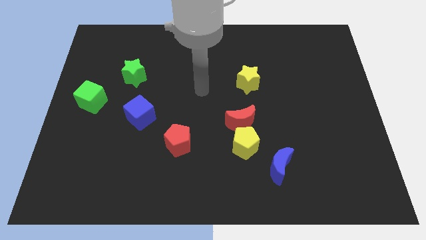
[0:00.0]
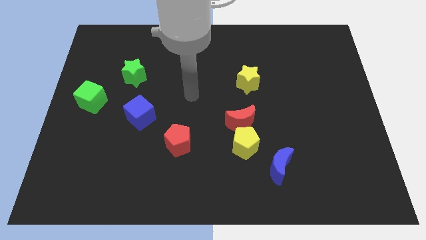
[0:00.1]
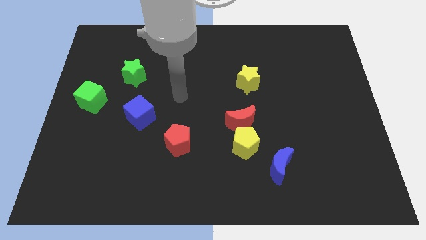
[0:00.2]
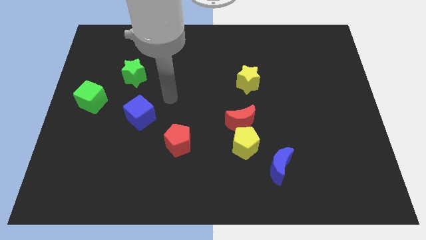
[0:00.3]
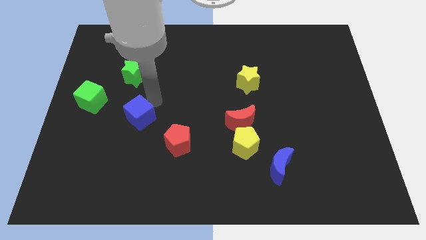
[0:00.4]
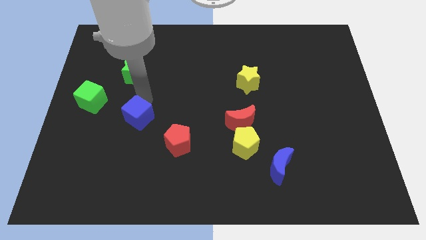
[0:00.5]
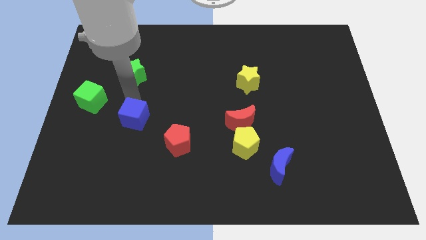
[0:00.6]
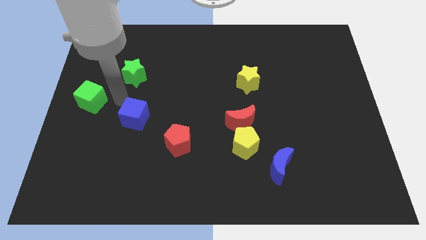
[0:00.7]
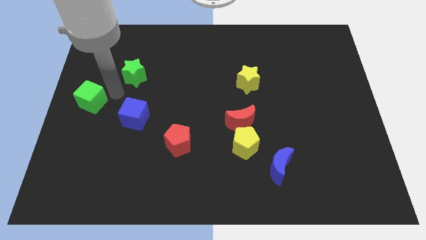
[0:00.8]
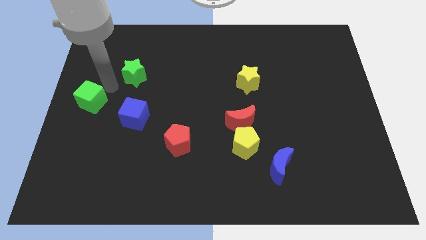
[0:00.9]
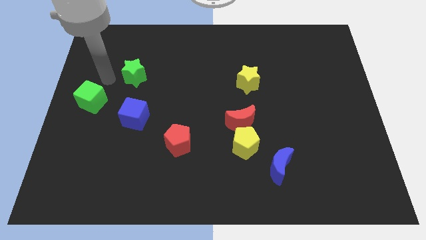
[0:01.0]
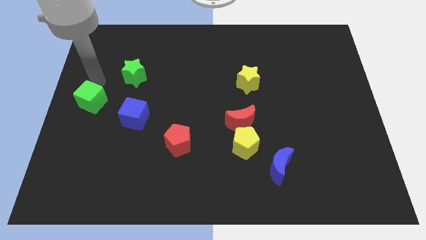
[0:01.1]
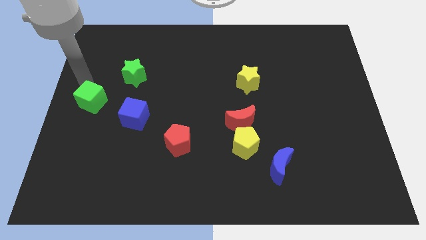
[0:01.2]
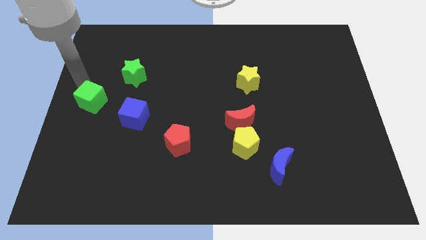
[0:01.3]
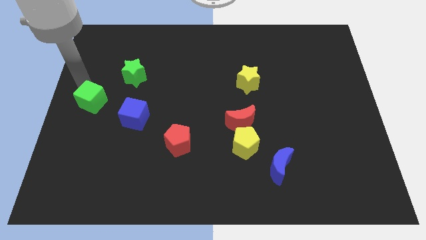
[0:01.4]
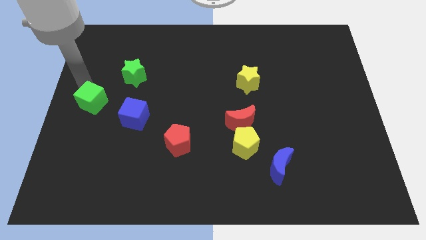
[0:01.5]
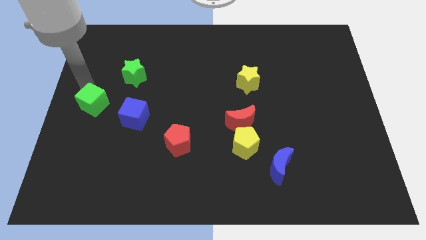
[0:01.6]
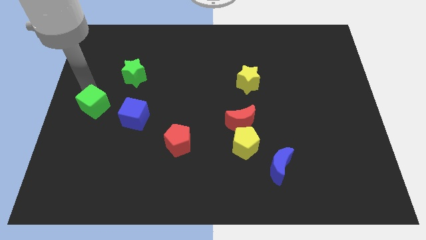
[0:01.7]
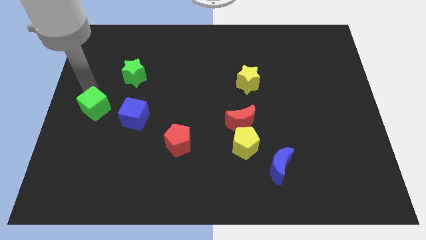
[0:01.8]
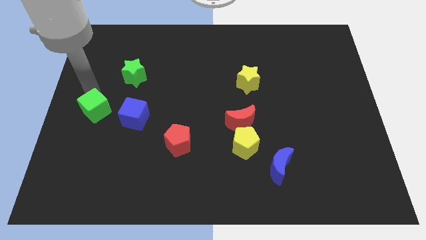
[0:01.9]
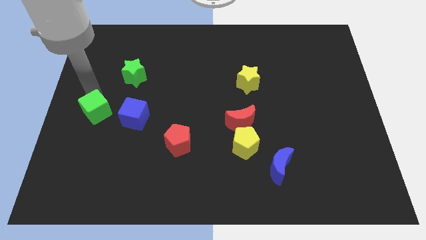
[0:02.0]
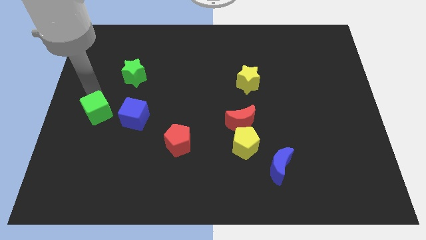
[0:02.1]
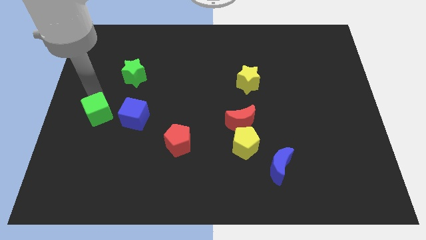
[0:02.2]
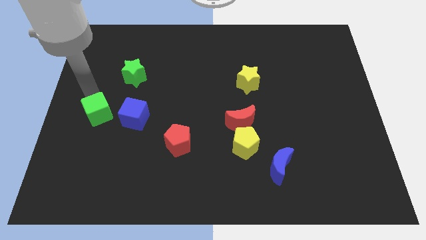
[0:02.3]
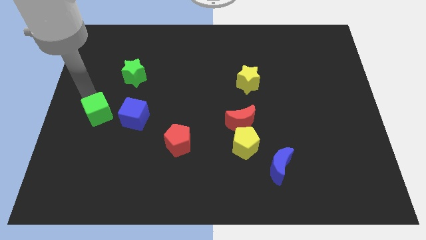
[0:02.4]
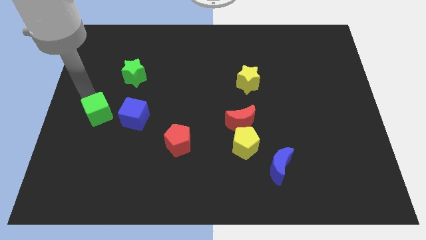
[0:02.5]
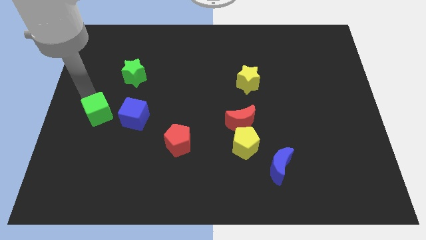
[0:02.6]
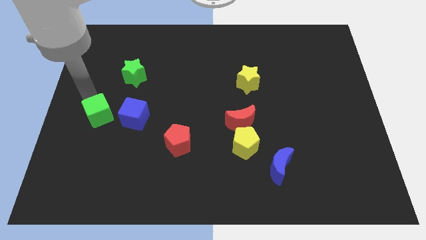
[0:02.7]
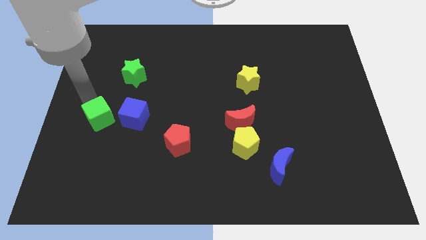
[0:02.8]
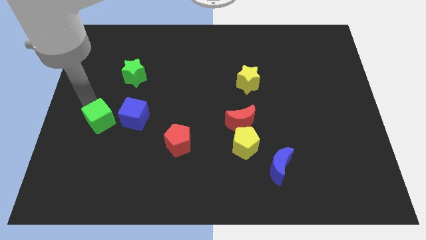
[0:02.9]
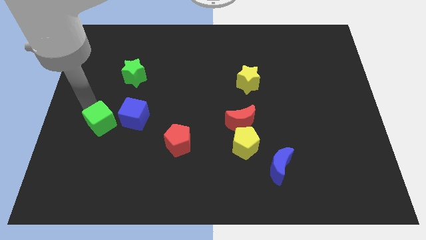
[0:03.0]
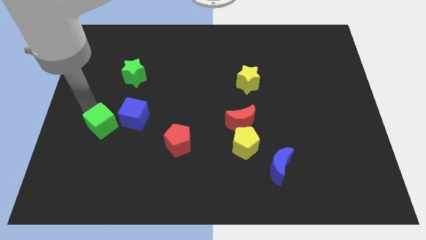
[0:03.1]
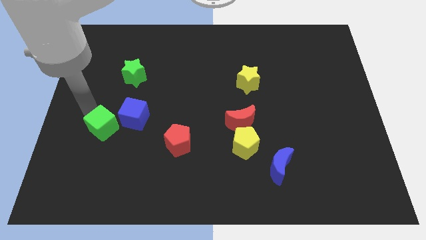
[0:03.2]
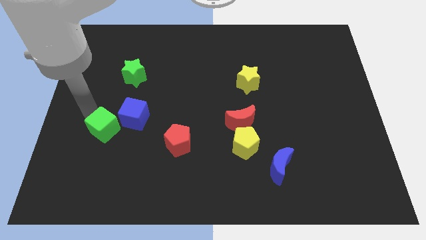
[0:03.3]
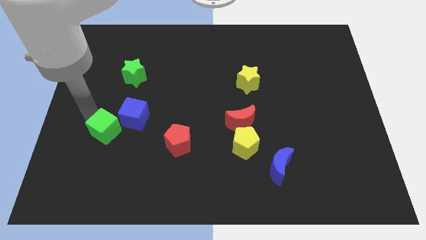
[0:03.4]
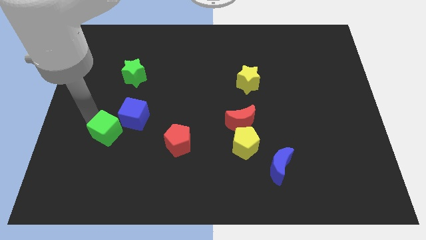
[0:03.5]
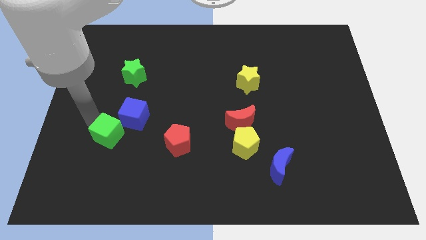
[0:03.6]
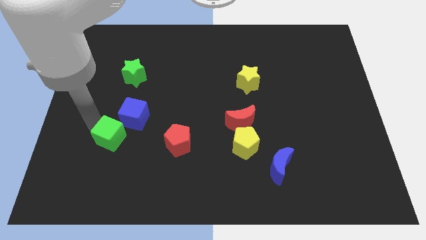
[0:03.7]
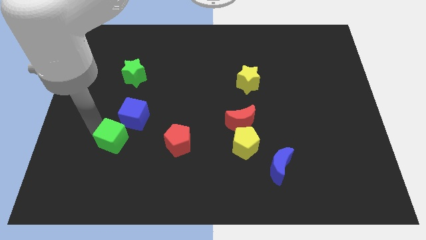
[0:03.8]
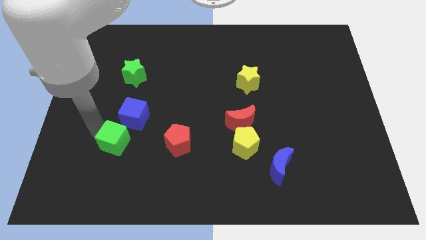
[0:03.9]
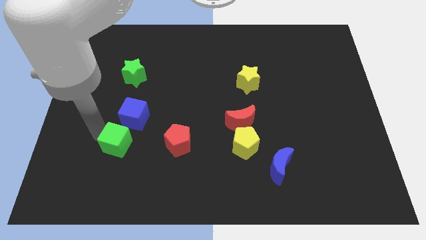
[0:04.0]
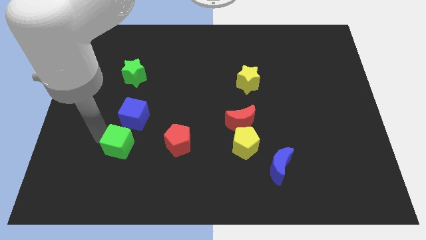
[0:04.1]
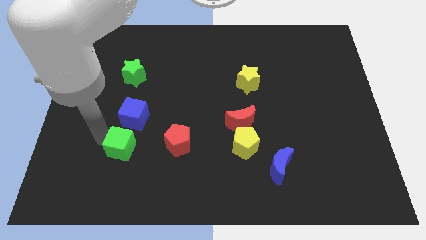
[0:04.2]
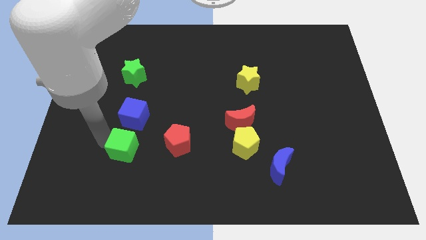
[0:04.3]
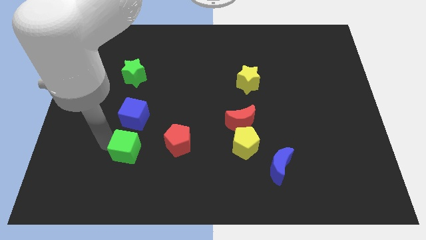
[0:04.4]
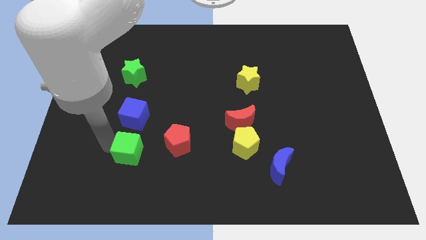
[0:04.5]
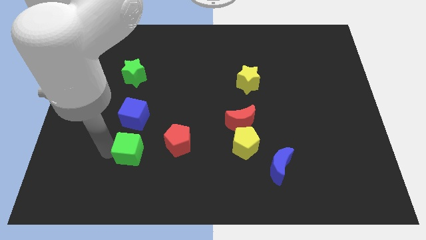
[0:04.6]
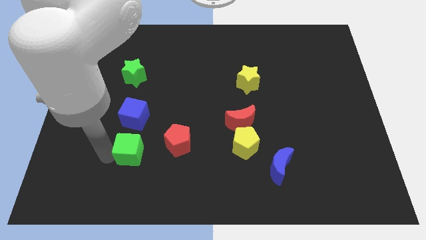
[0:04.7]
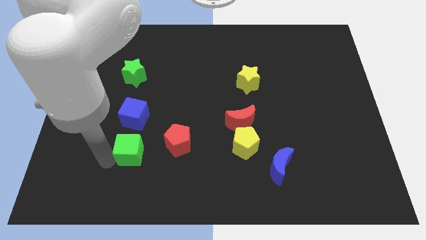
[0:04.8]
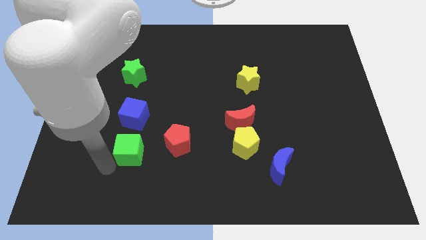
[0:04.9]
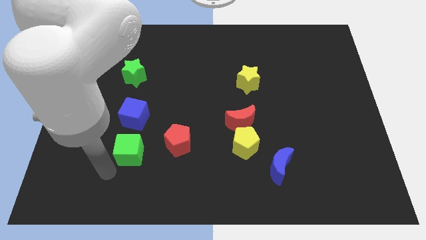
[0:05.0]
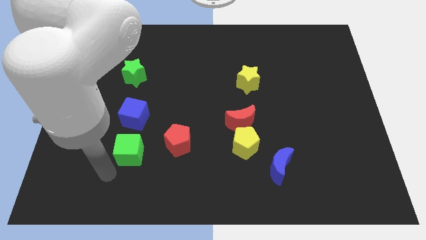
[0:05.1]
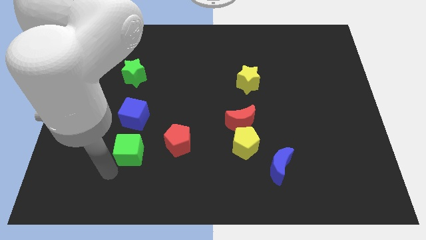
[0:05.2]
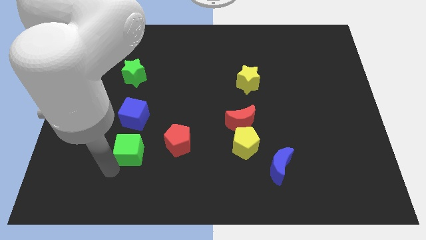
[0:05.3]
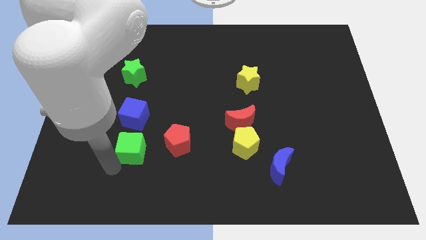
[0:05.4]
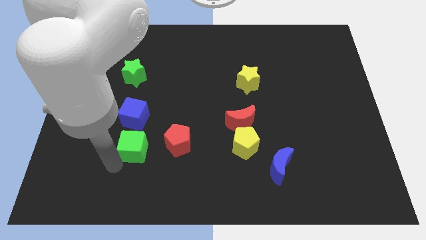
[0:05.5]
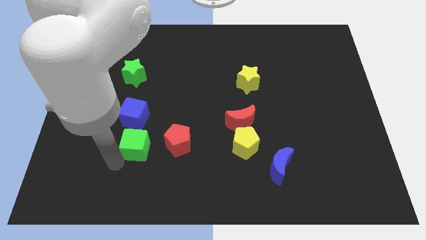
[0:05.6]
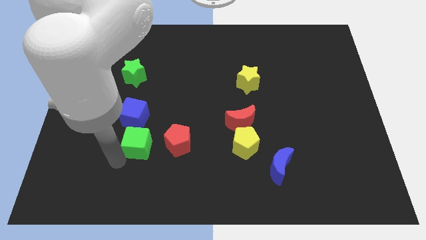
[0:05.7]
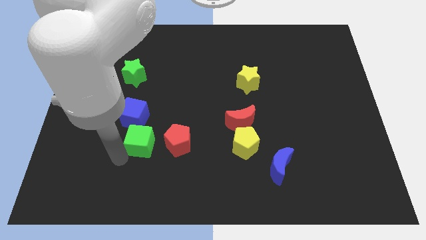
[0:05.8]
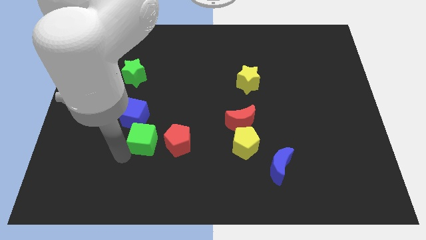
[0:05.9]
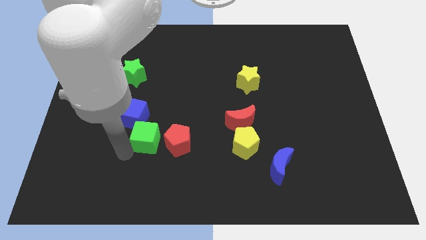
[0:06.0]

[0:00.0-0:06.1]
push the green cube to the top left of the red pentagon

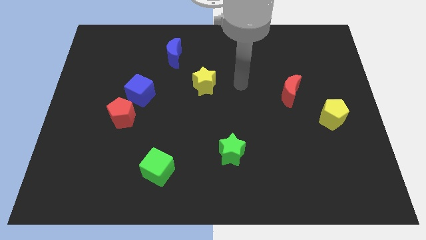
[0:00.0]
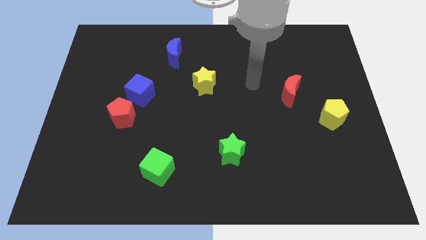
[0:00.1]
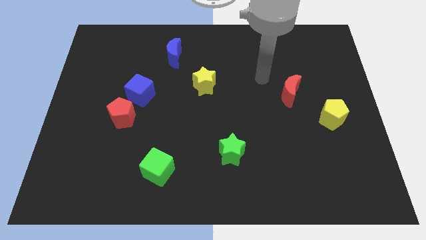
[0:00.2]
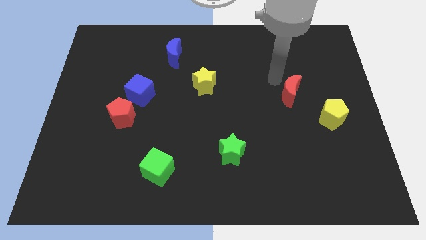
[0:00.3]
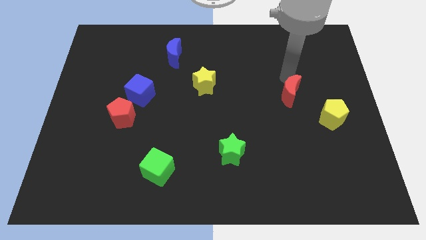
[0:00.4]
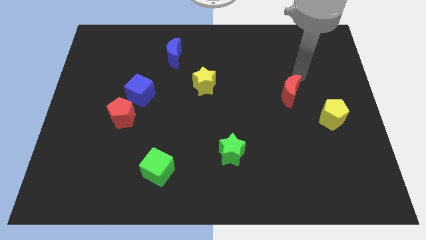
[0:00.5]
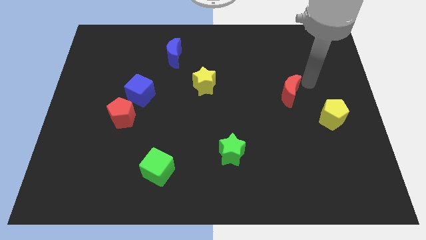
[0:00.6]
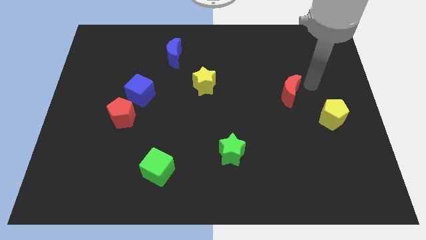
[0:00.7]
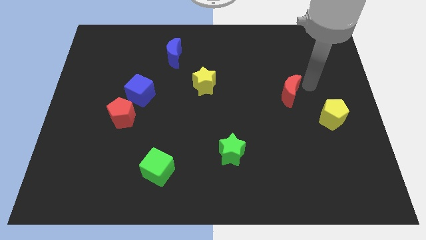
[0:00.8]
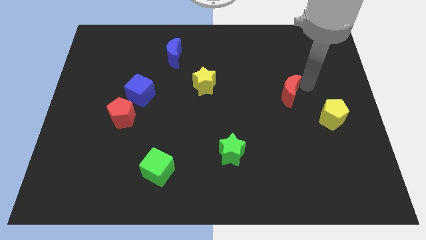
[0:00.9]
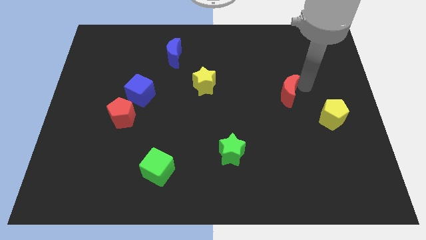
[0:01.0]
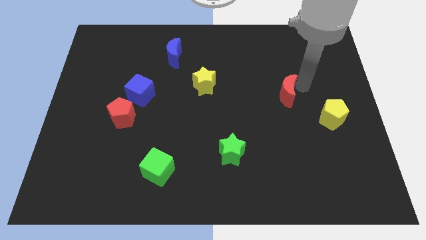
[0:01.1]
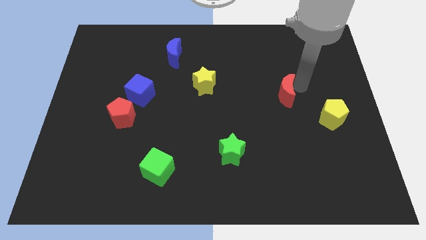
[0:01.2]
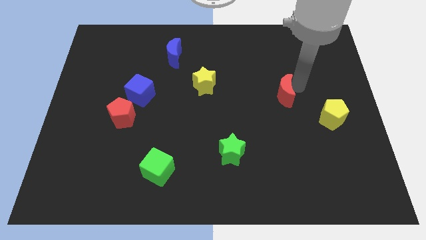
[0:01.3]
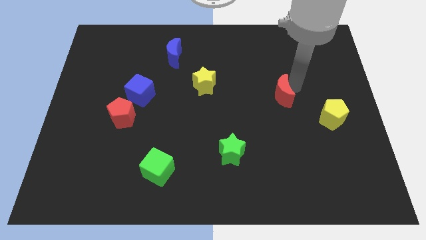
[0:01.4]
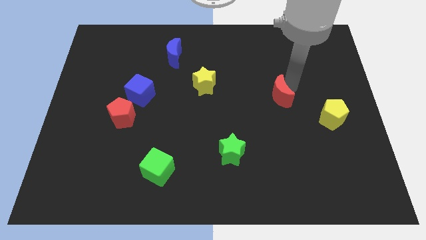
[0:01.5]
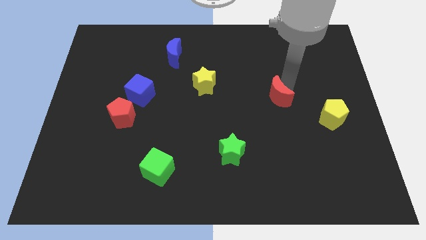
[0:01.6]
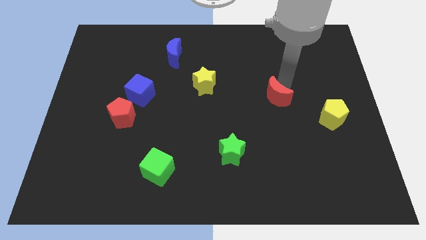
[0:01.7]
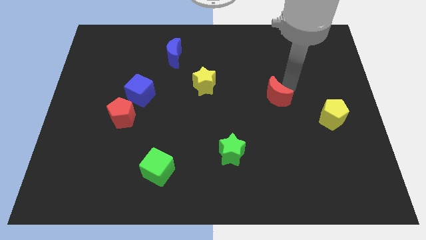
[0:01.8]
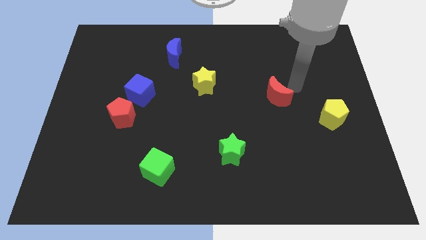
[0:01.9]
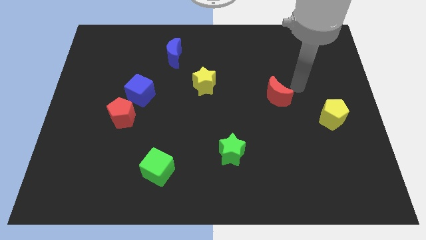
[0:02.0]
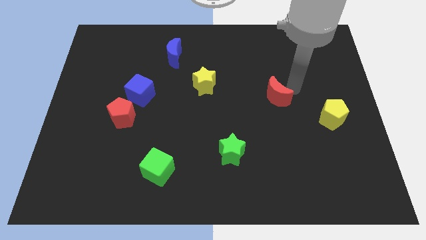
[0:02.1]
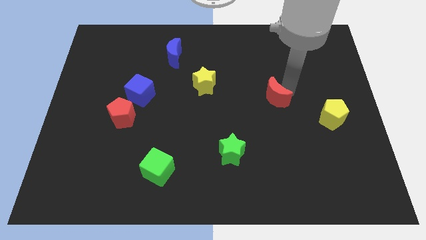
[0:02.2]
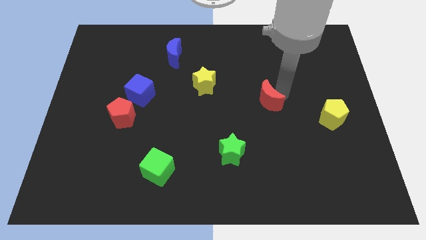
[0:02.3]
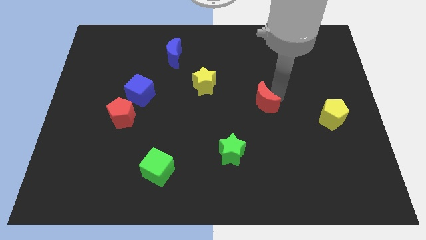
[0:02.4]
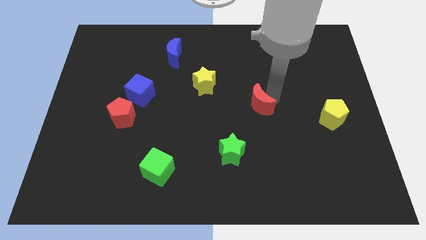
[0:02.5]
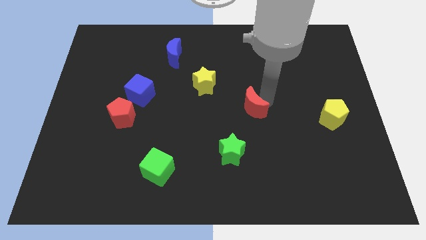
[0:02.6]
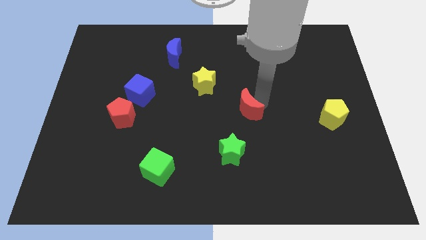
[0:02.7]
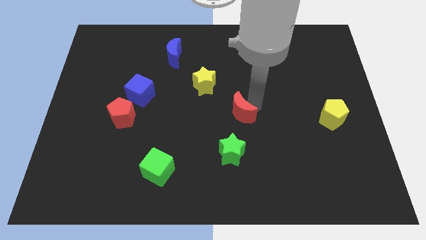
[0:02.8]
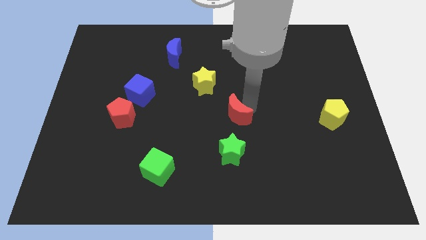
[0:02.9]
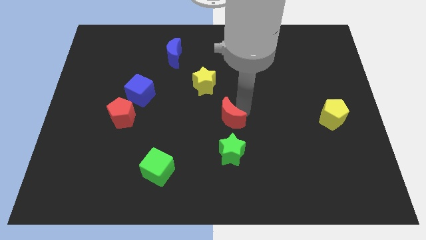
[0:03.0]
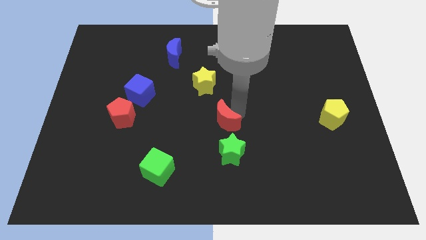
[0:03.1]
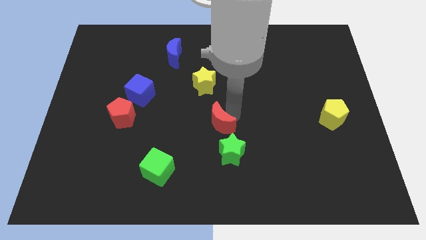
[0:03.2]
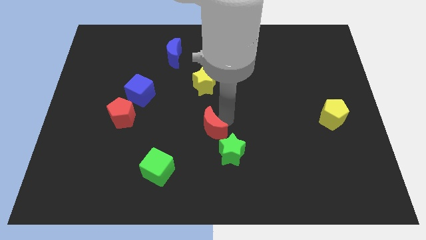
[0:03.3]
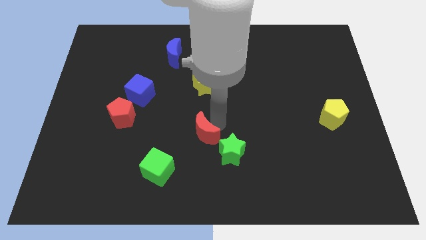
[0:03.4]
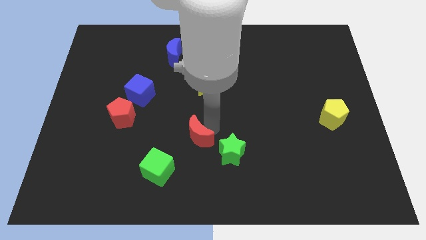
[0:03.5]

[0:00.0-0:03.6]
push the red moon diagonally up and to the right of the green cube
